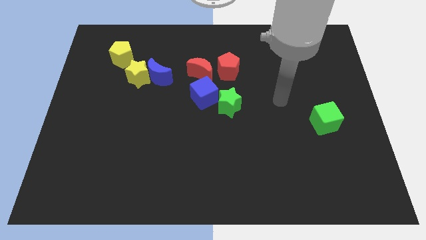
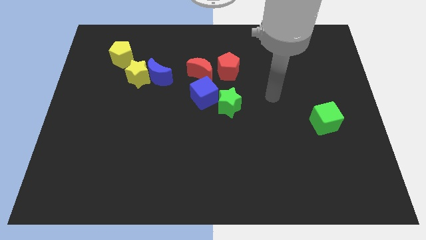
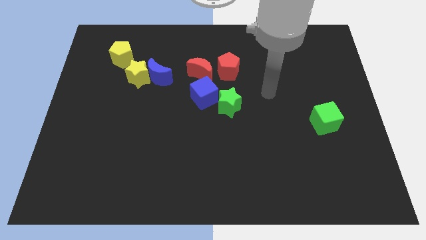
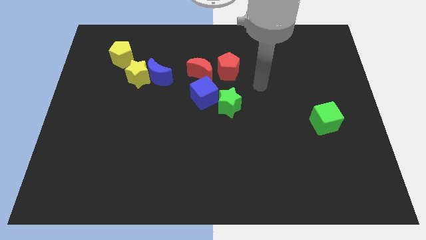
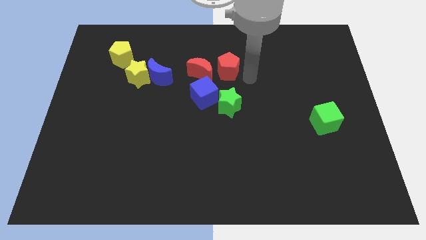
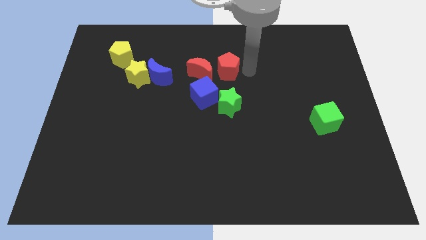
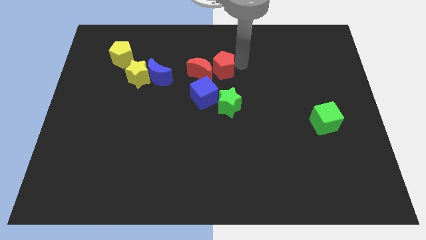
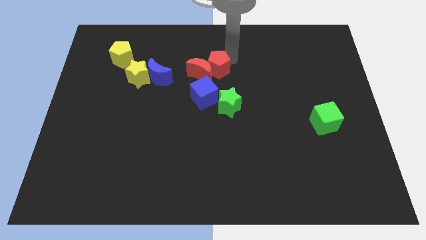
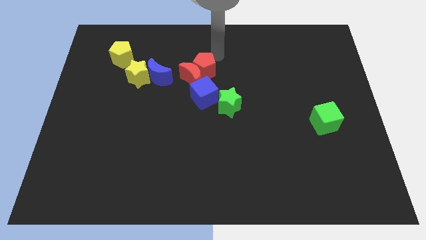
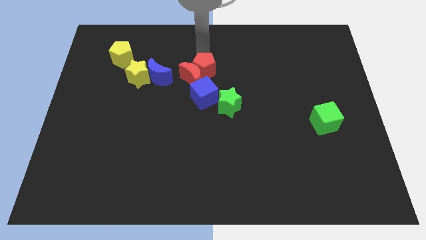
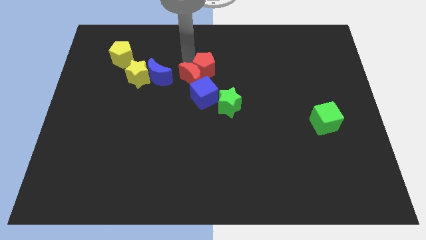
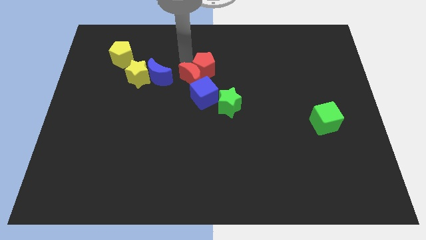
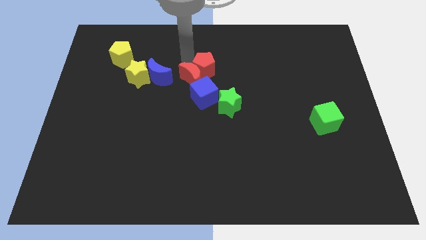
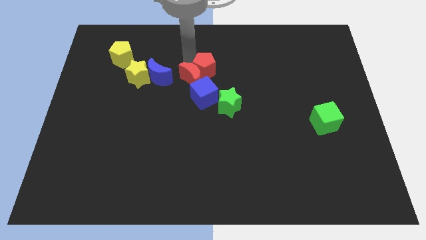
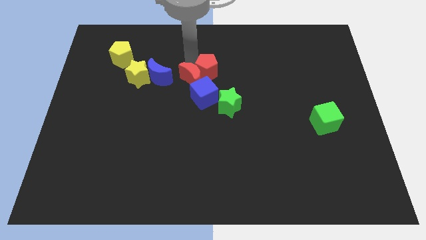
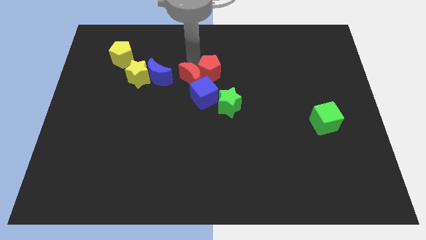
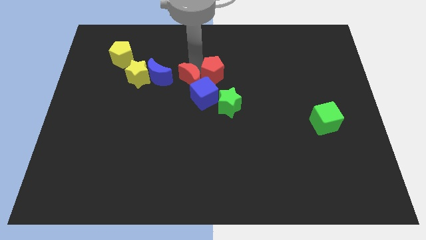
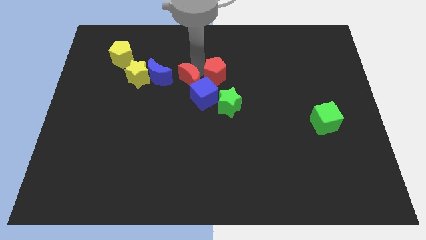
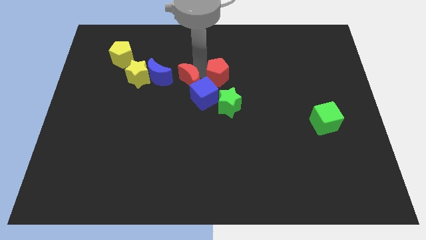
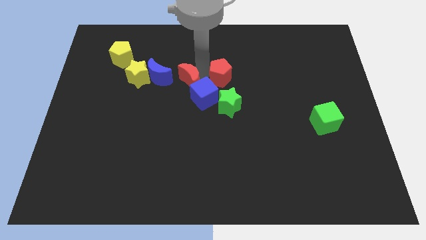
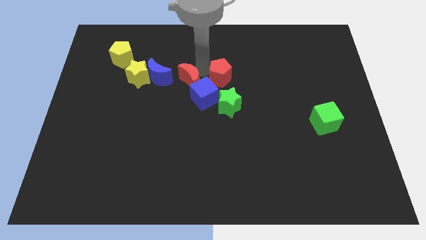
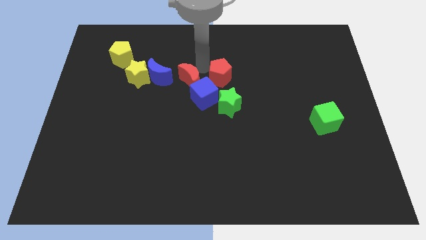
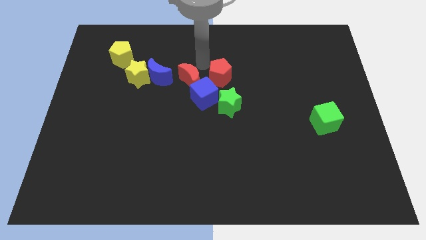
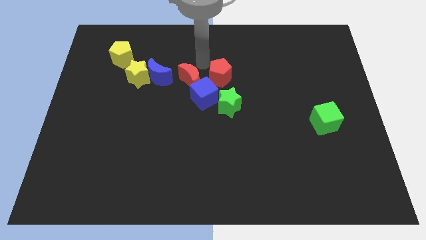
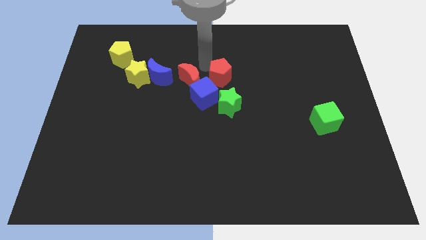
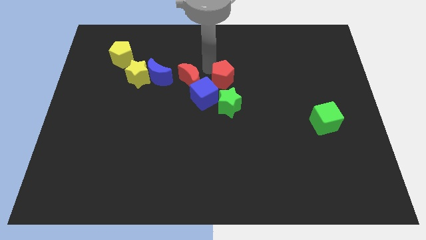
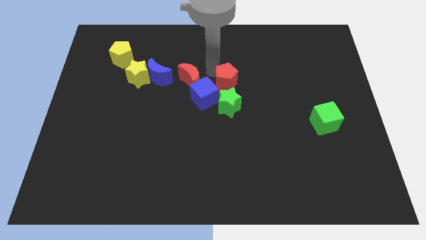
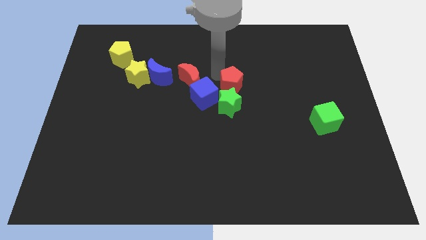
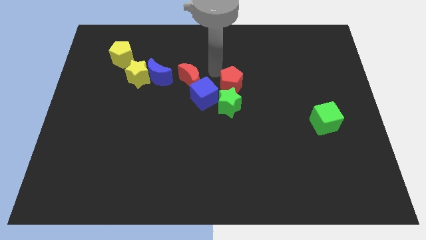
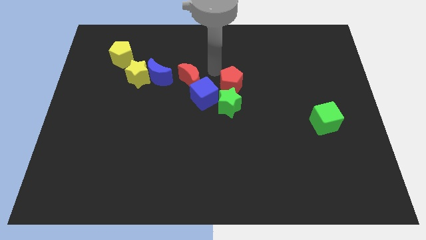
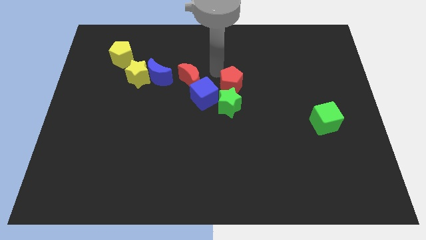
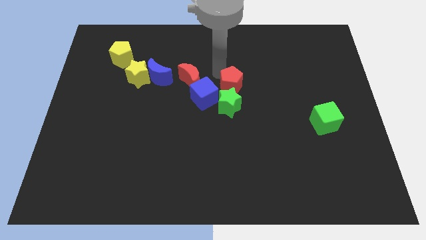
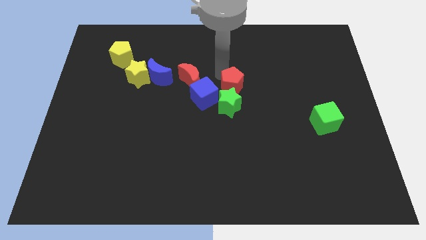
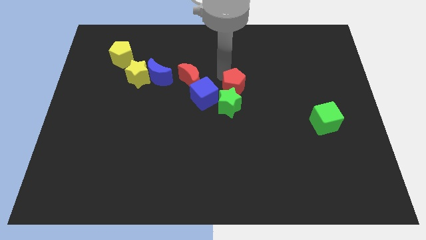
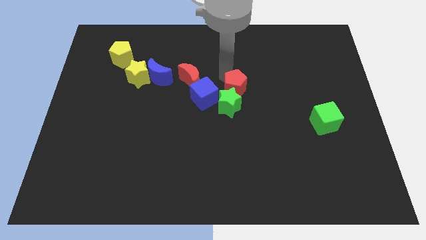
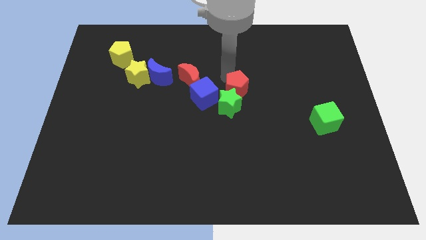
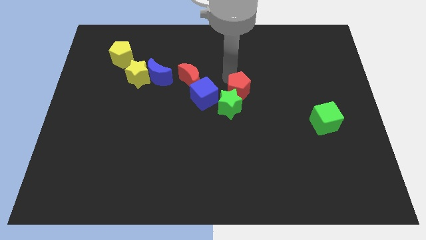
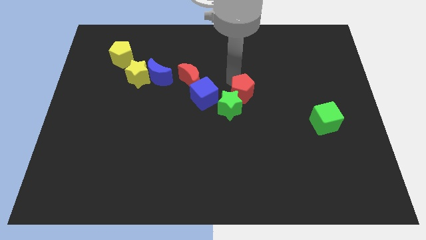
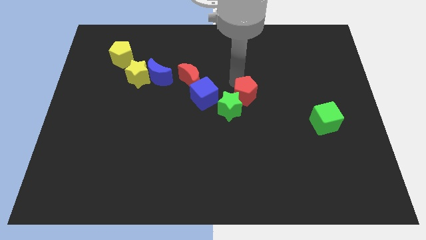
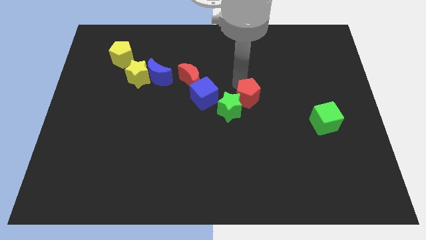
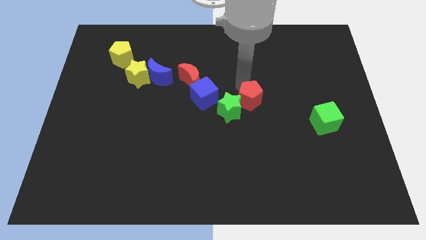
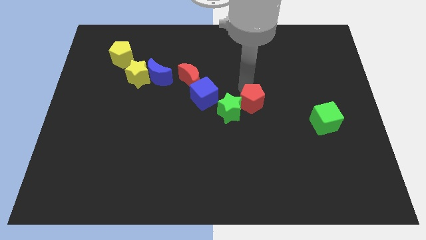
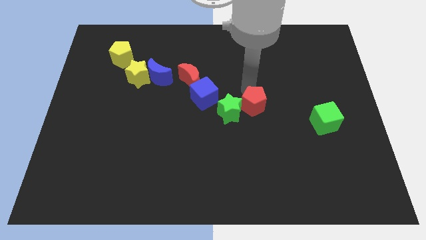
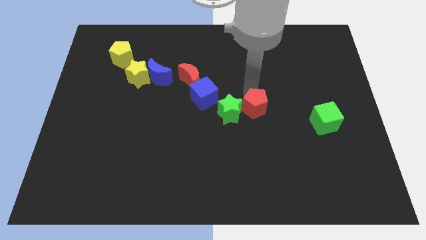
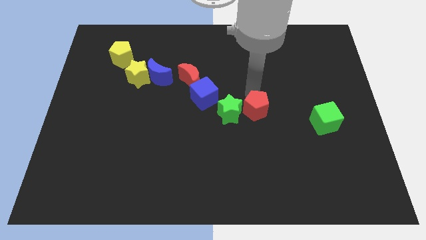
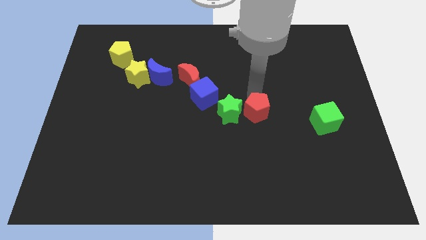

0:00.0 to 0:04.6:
slide the red pentagon to the bottom right of the green star

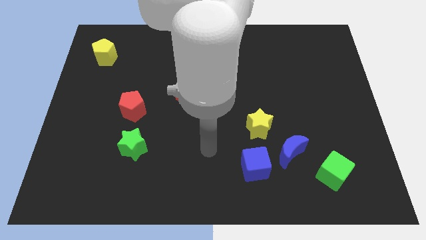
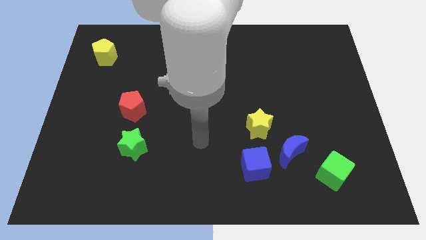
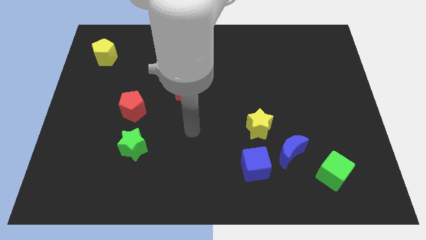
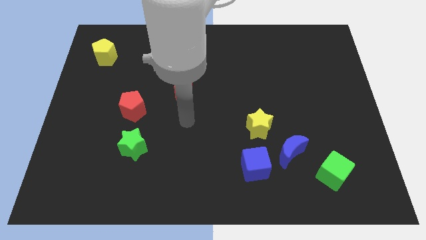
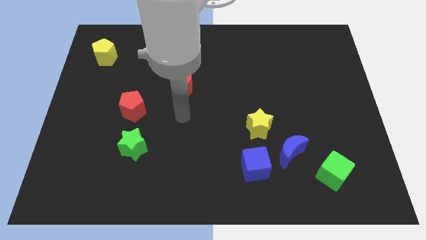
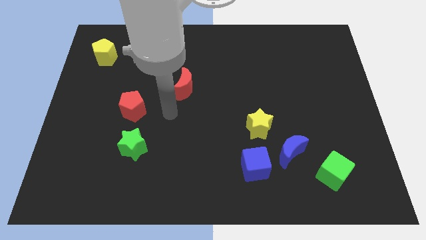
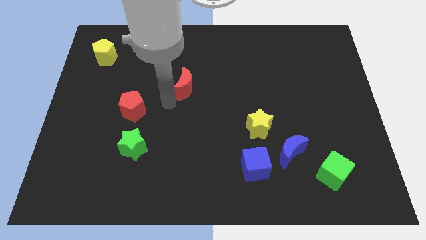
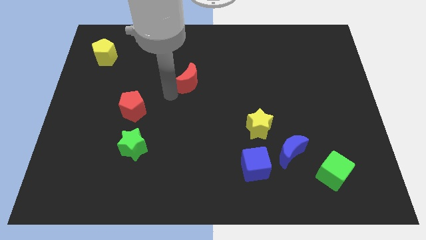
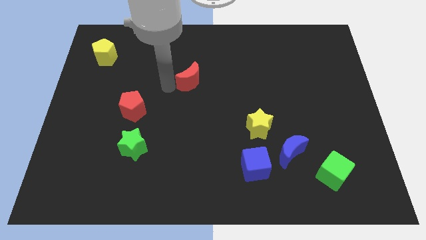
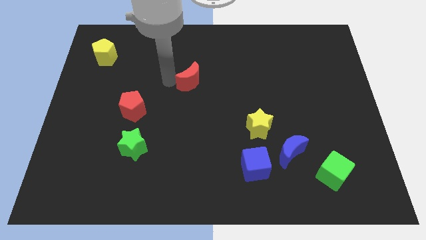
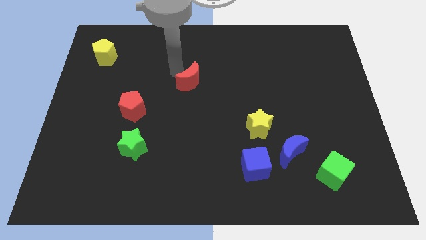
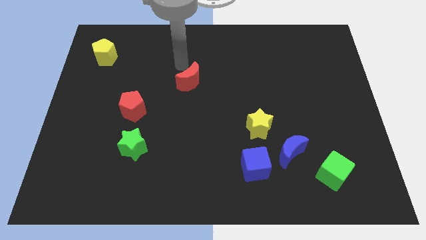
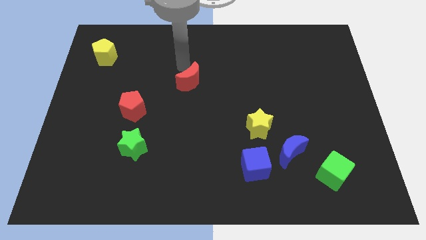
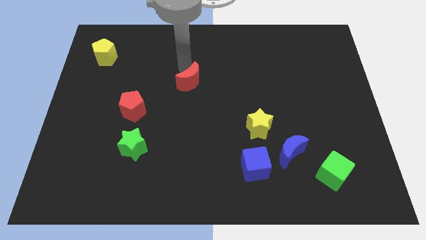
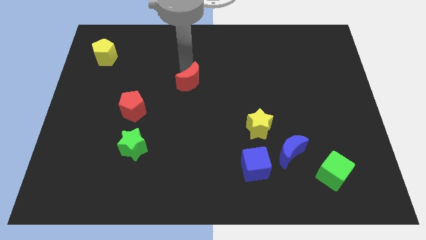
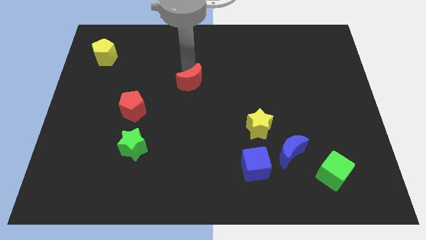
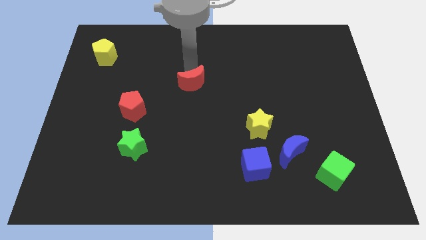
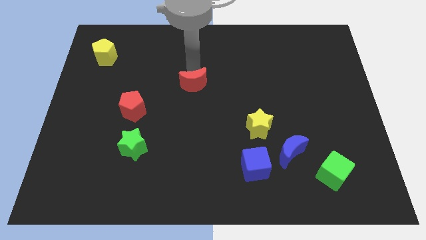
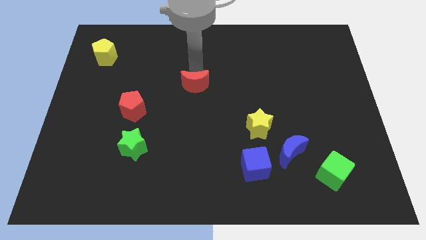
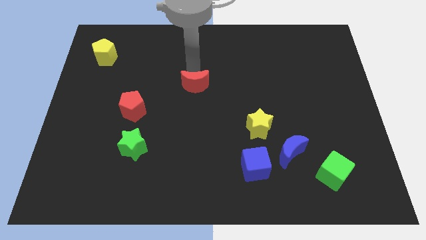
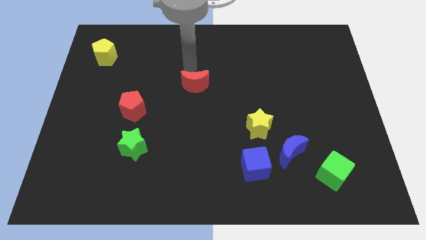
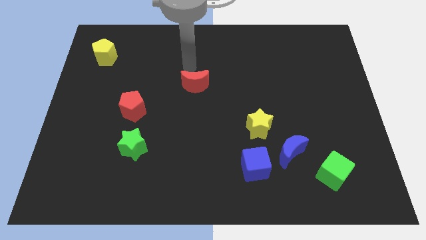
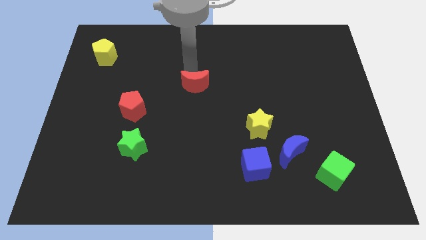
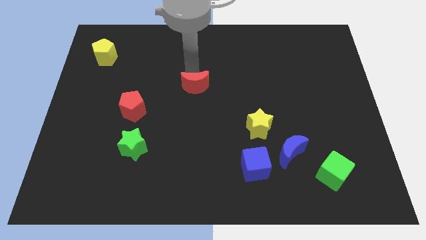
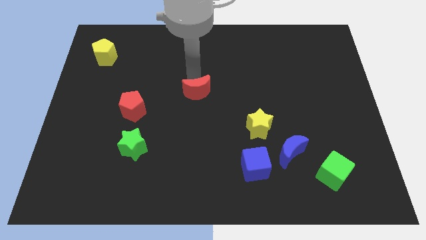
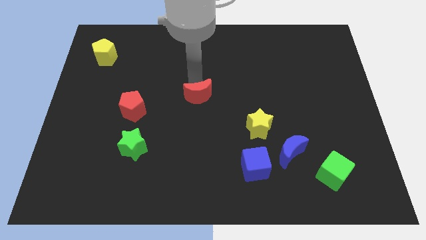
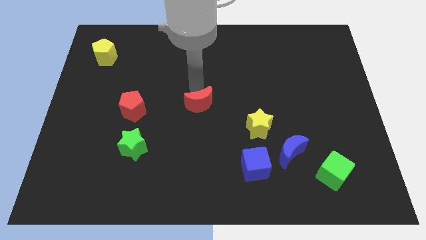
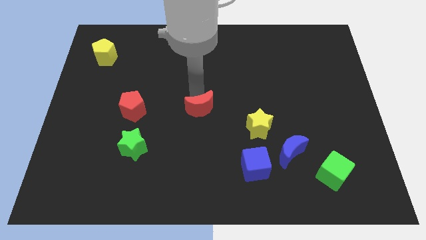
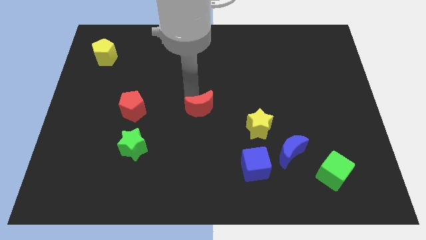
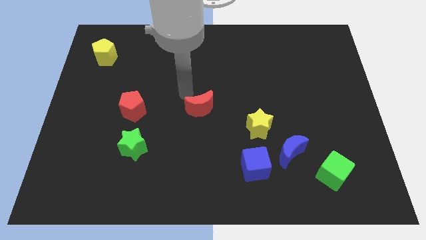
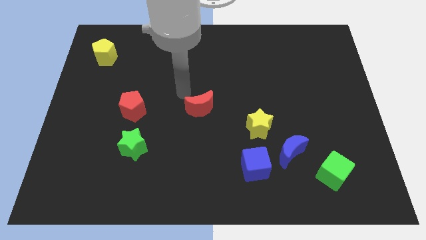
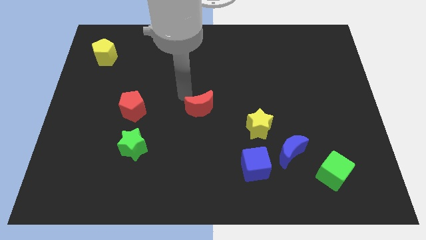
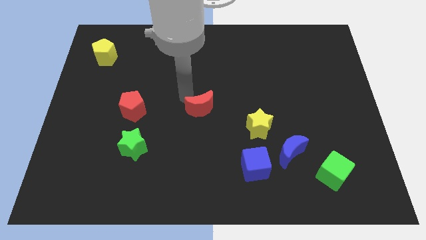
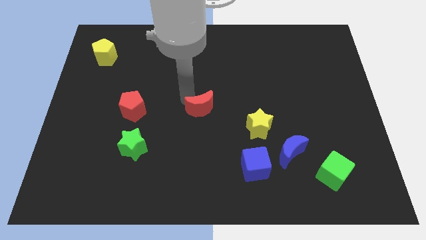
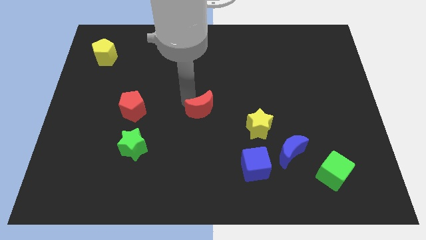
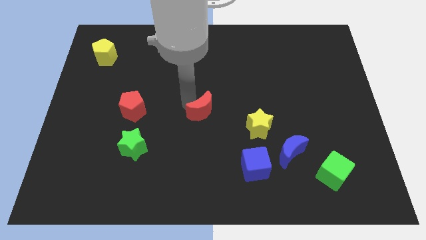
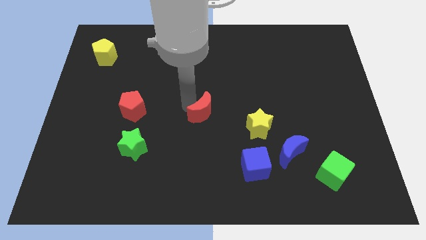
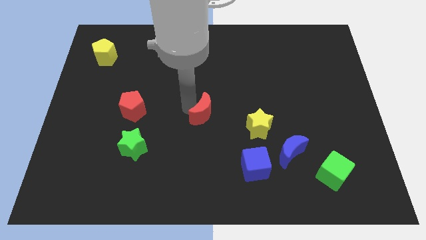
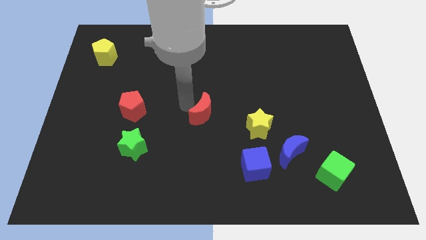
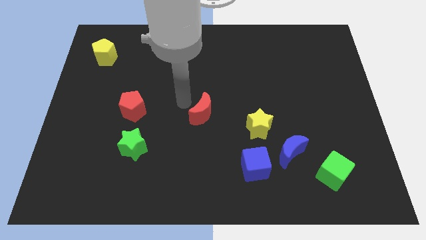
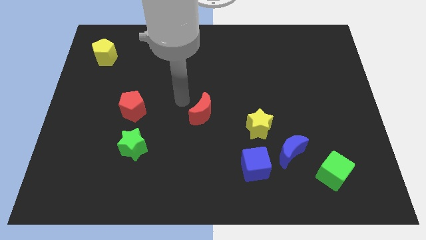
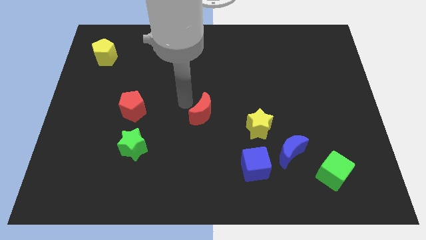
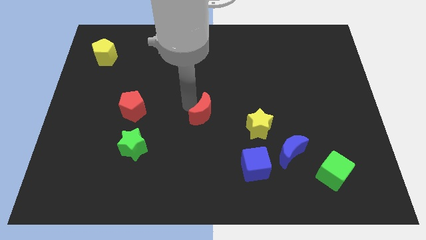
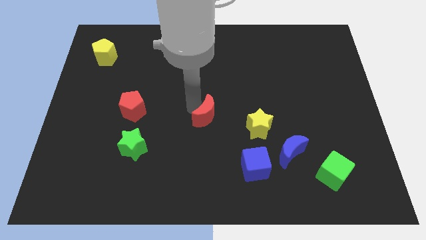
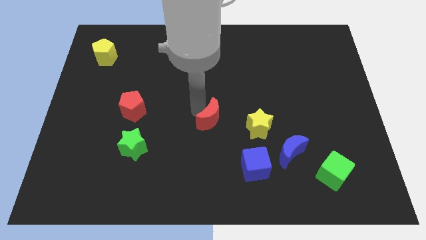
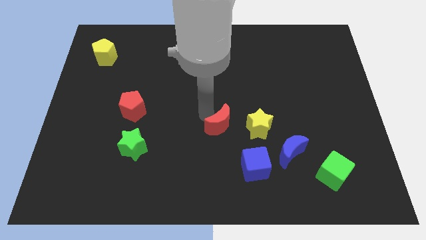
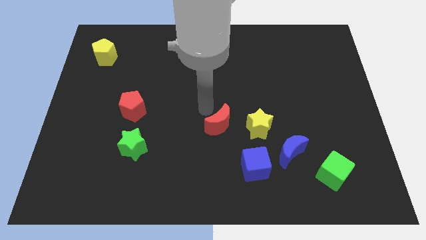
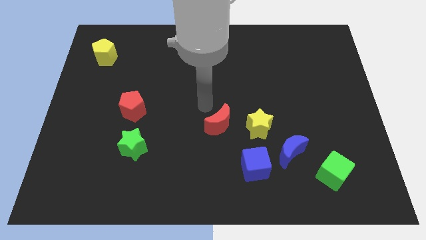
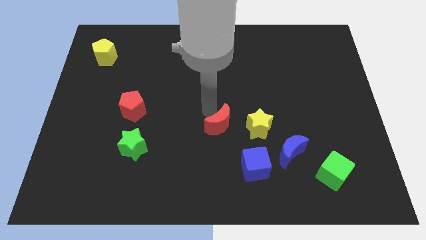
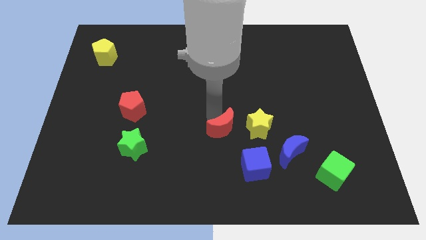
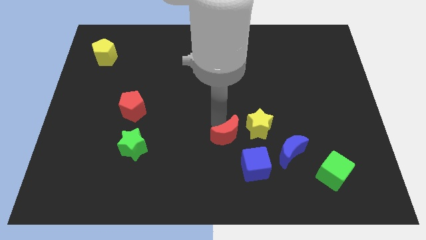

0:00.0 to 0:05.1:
slide the red moon to the left of the blue moon
